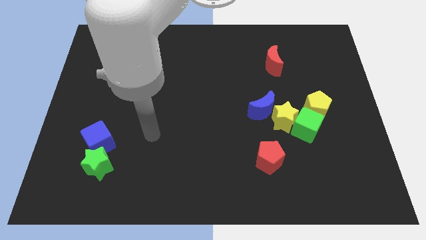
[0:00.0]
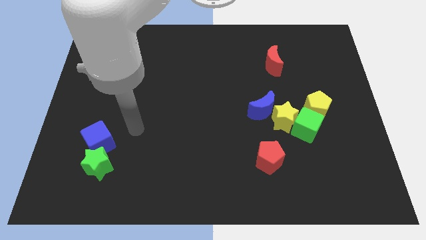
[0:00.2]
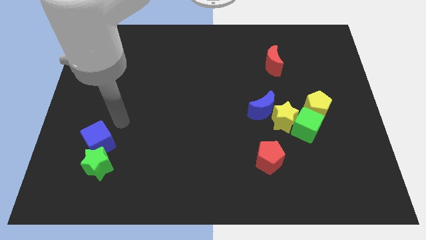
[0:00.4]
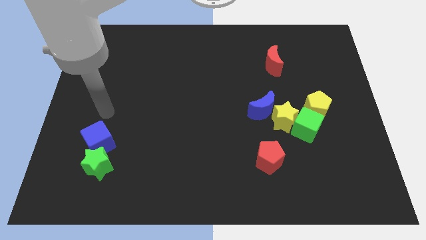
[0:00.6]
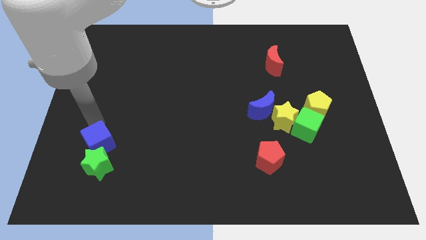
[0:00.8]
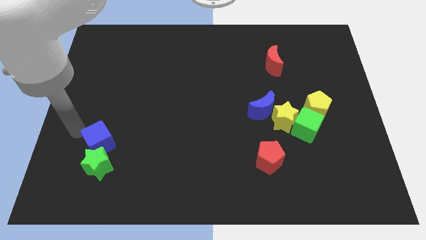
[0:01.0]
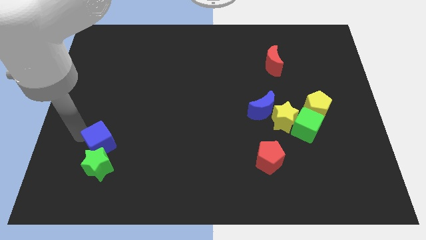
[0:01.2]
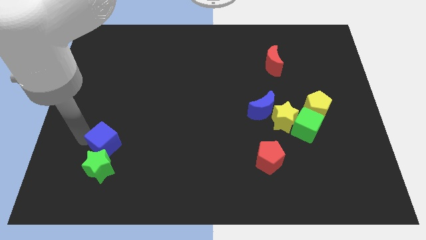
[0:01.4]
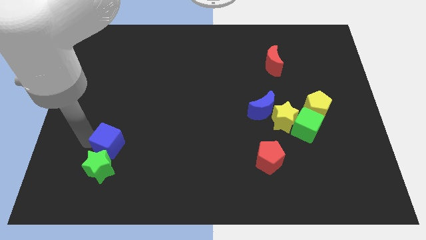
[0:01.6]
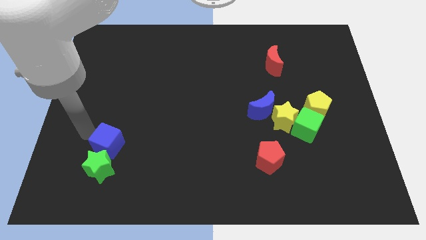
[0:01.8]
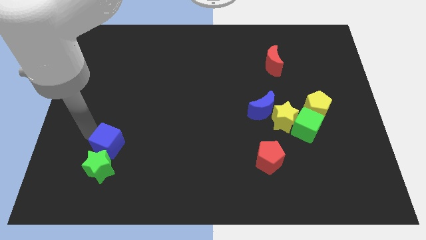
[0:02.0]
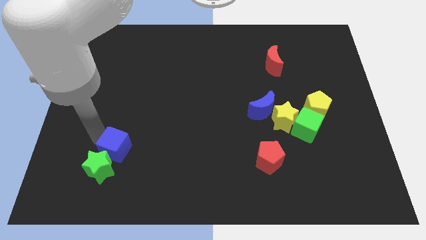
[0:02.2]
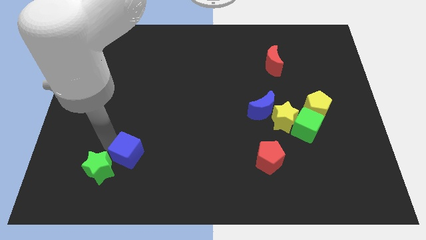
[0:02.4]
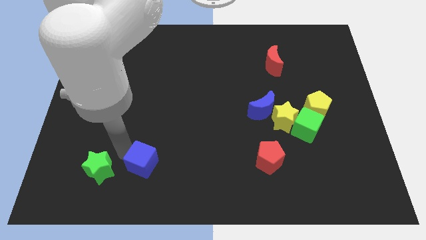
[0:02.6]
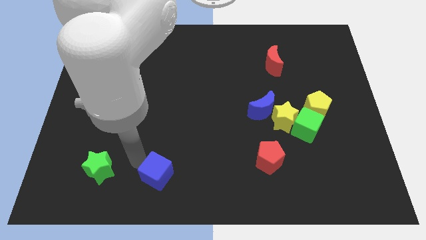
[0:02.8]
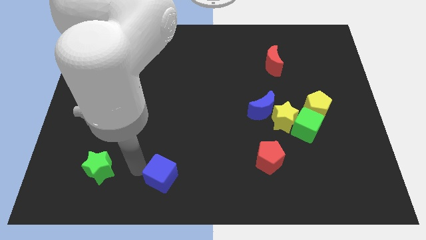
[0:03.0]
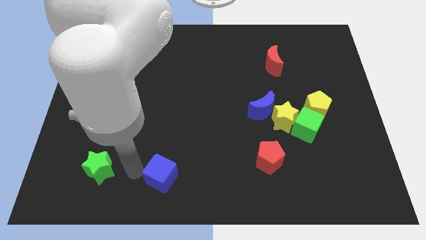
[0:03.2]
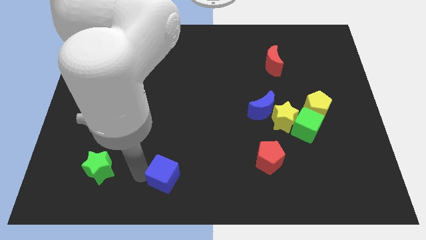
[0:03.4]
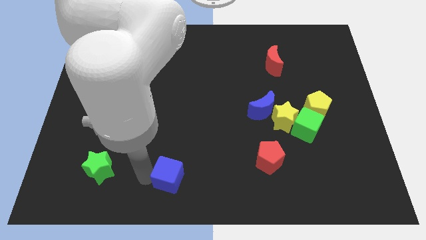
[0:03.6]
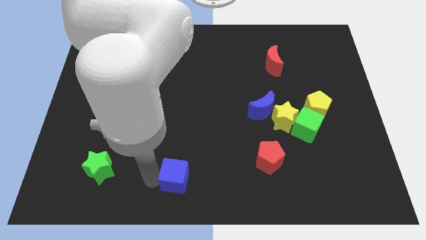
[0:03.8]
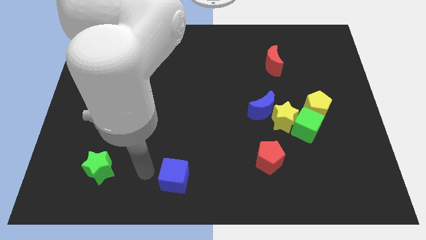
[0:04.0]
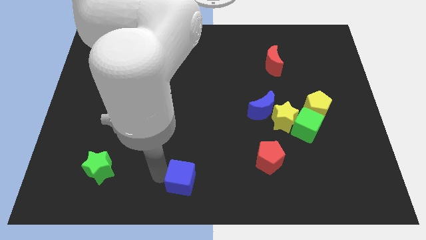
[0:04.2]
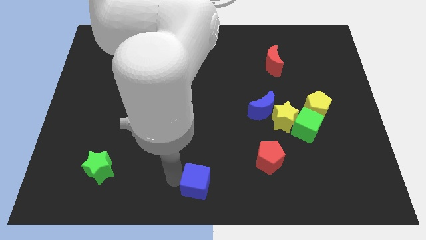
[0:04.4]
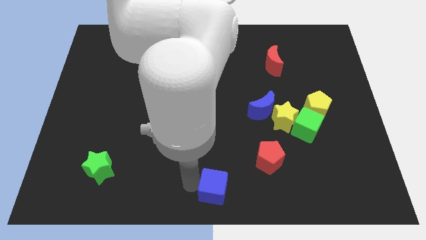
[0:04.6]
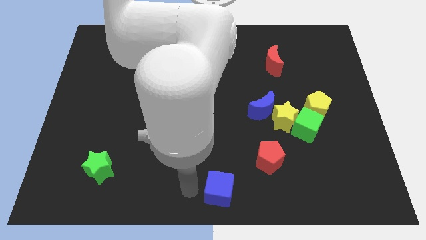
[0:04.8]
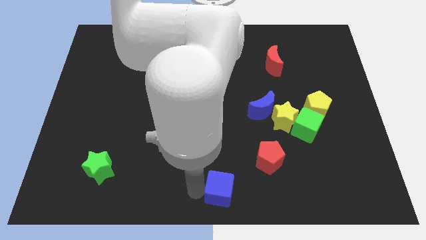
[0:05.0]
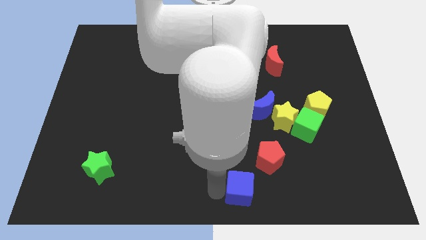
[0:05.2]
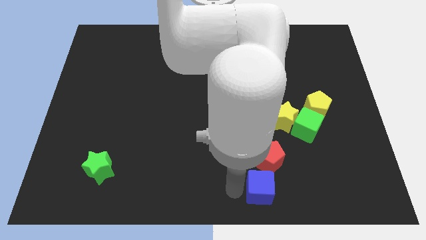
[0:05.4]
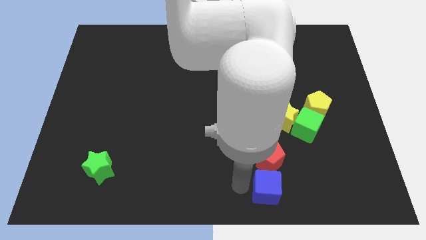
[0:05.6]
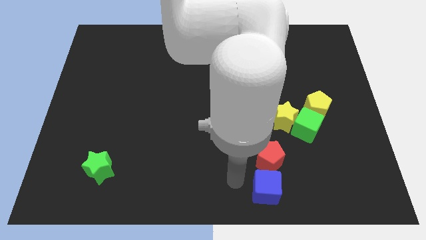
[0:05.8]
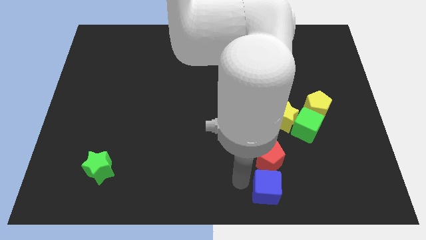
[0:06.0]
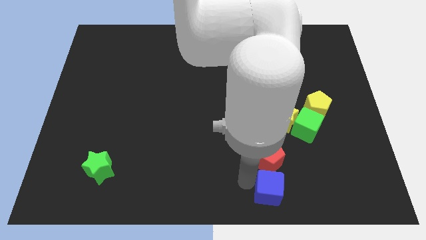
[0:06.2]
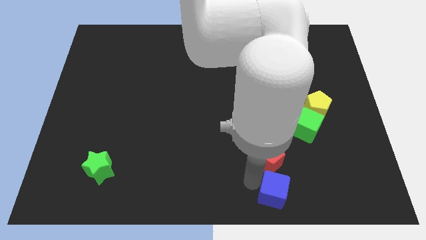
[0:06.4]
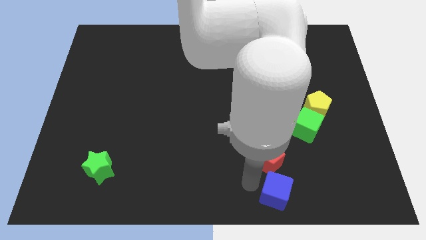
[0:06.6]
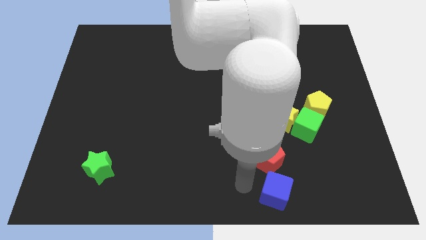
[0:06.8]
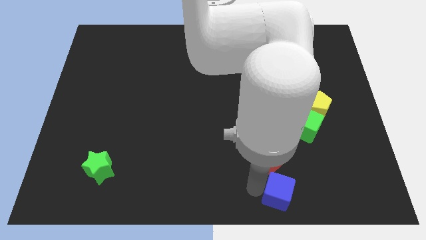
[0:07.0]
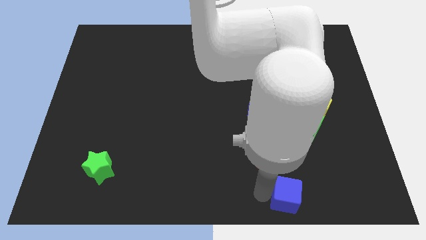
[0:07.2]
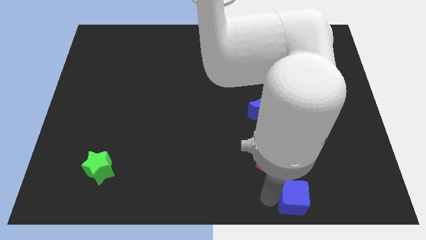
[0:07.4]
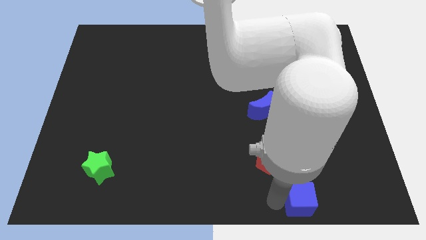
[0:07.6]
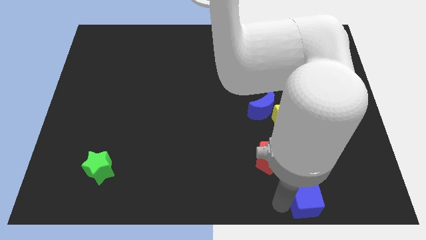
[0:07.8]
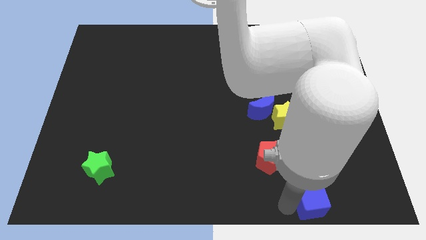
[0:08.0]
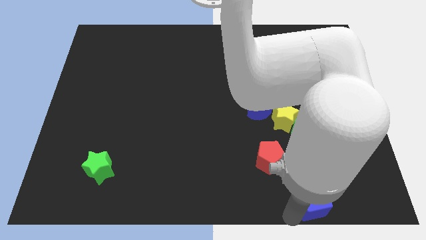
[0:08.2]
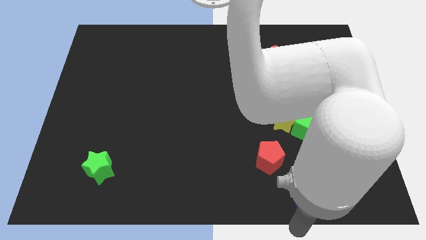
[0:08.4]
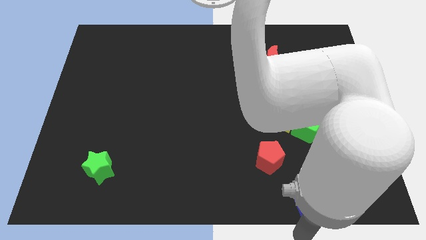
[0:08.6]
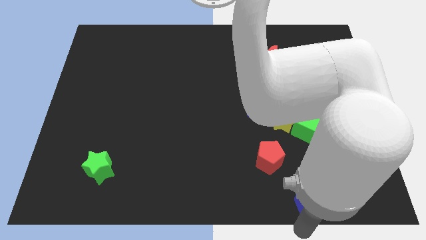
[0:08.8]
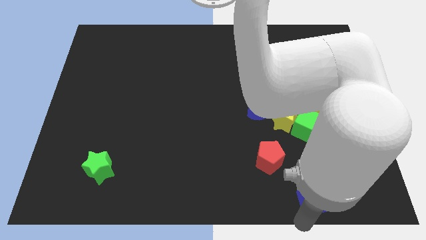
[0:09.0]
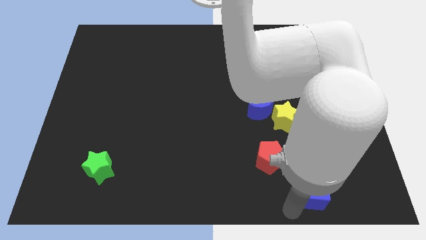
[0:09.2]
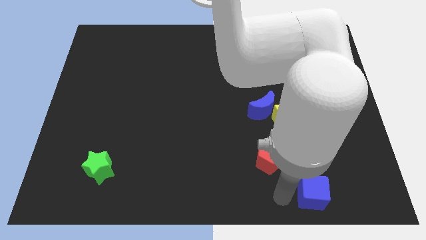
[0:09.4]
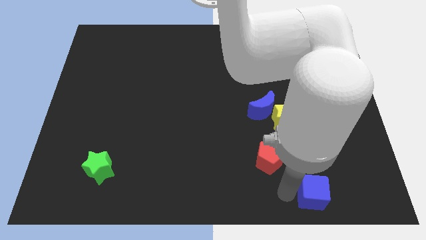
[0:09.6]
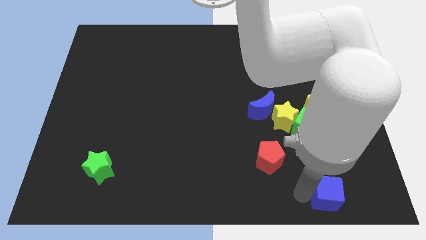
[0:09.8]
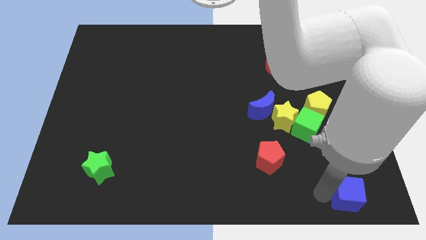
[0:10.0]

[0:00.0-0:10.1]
put the blue cube to the bottom right

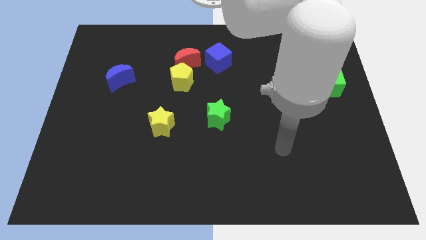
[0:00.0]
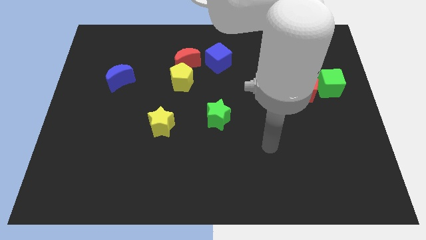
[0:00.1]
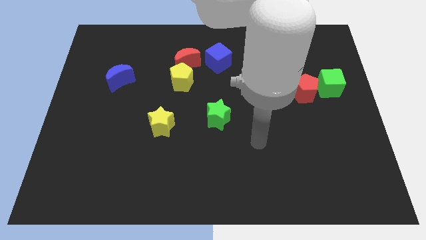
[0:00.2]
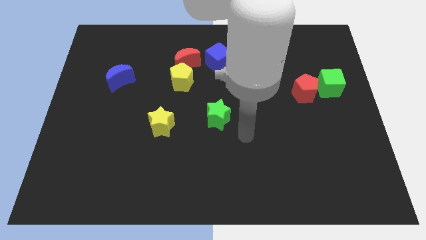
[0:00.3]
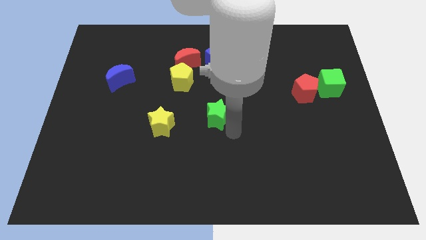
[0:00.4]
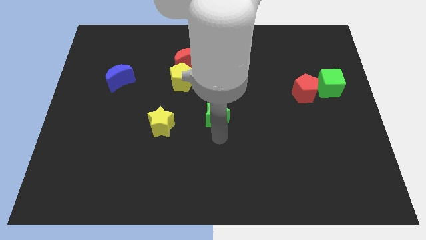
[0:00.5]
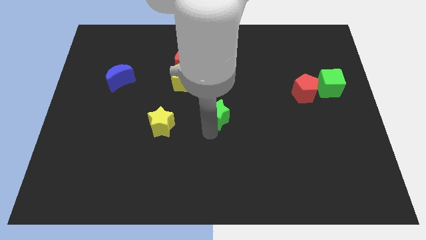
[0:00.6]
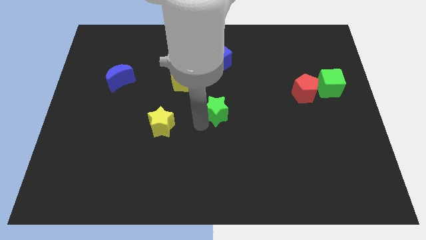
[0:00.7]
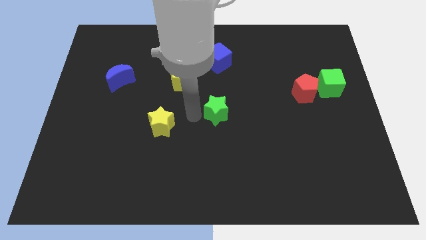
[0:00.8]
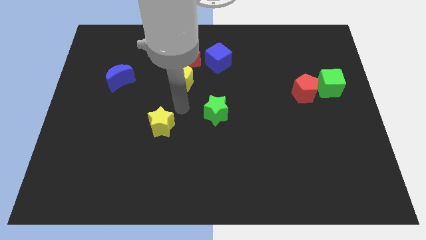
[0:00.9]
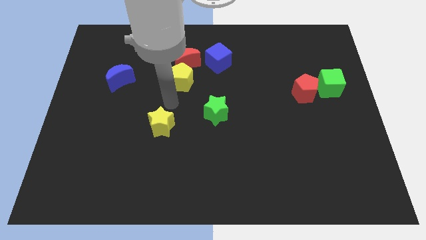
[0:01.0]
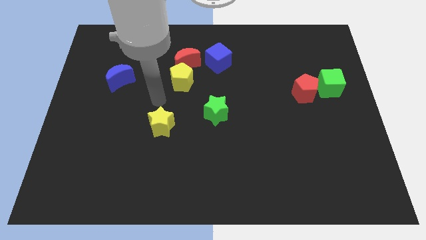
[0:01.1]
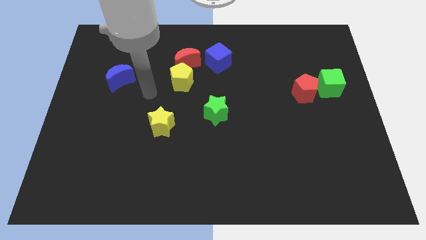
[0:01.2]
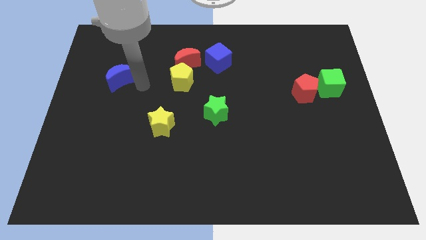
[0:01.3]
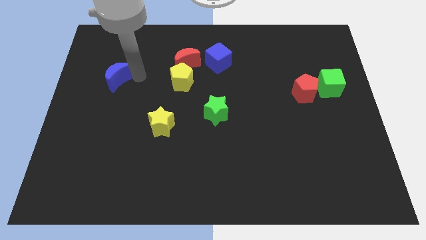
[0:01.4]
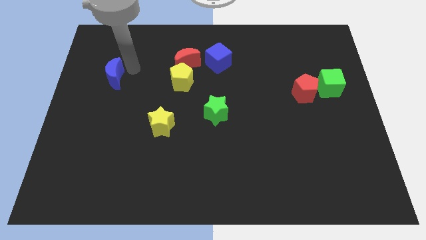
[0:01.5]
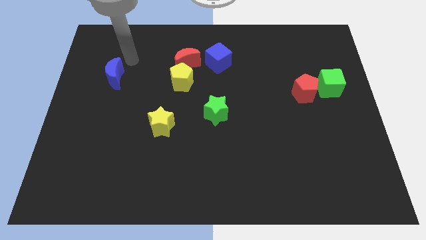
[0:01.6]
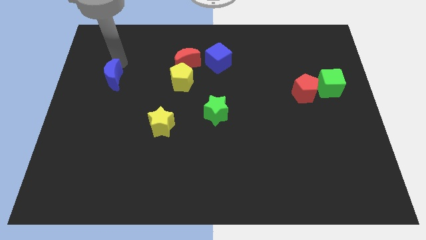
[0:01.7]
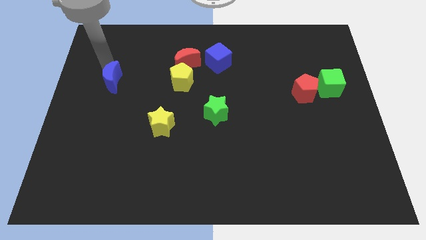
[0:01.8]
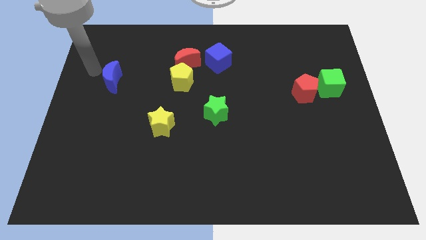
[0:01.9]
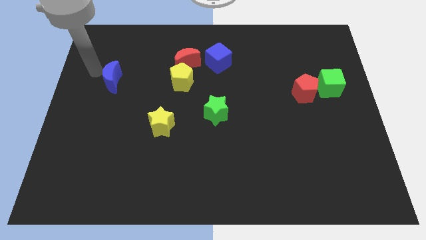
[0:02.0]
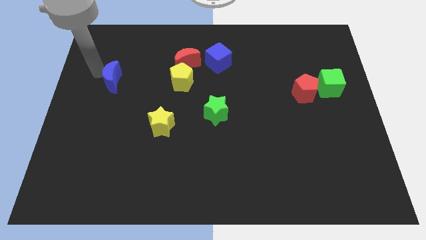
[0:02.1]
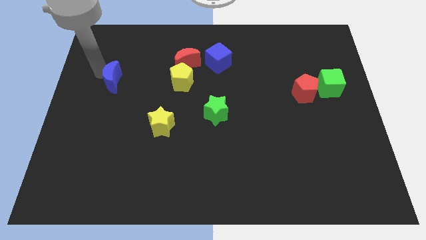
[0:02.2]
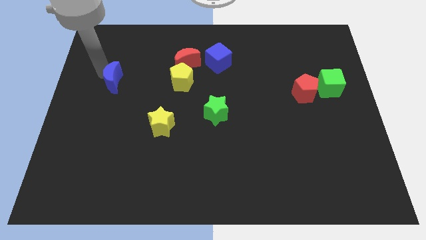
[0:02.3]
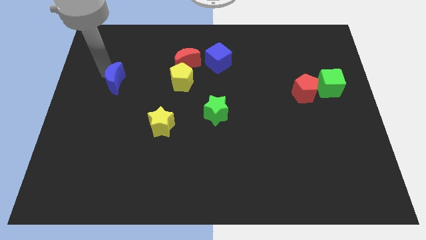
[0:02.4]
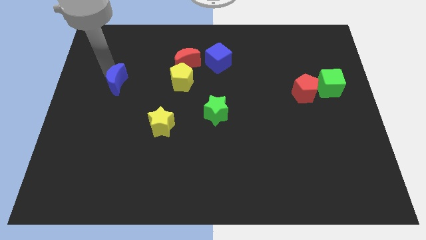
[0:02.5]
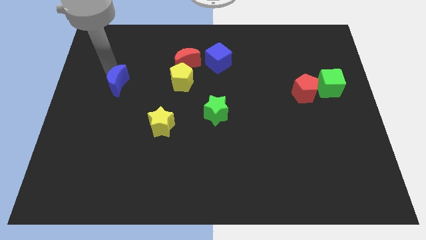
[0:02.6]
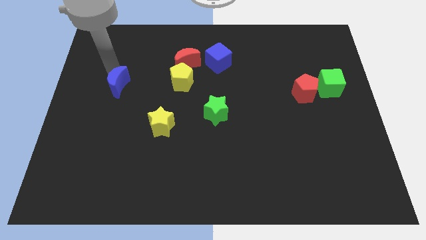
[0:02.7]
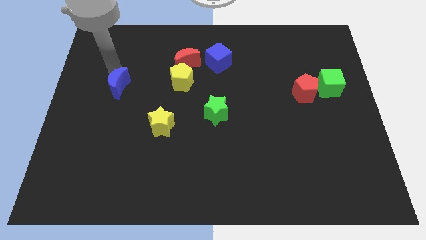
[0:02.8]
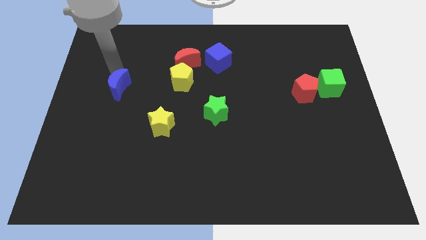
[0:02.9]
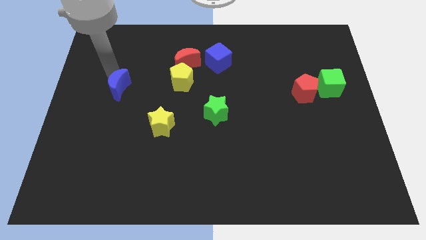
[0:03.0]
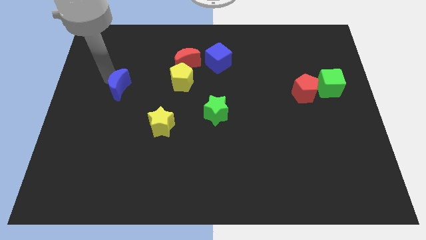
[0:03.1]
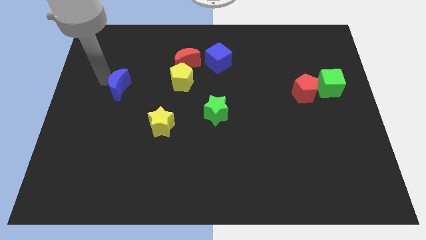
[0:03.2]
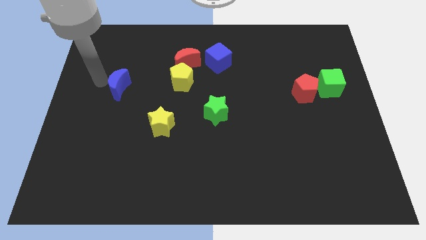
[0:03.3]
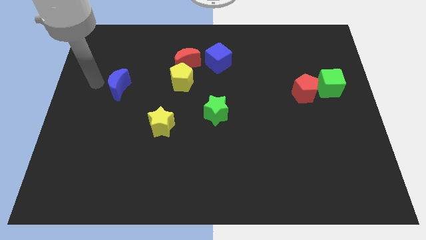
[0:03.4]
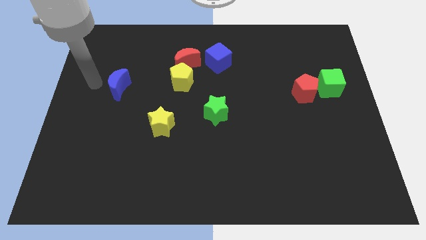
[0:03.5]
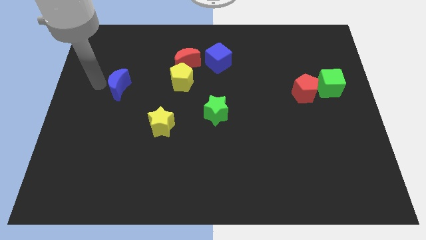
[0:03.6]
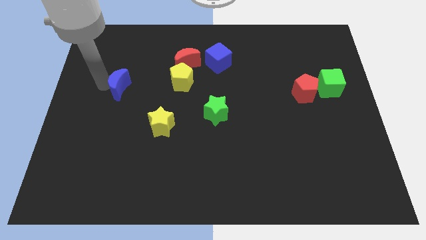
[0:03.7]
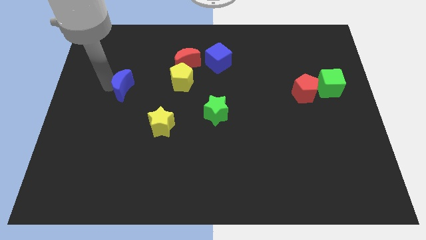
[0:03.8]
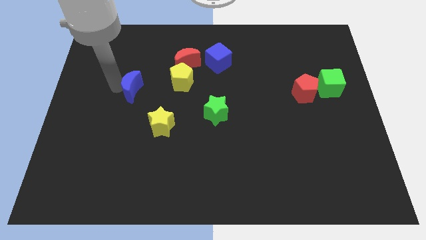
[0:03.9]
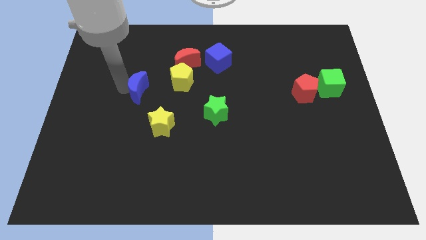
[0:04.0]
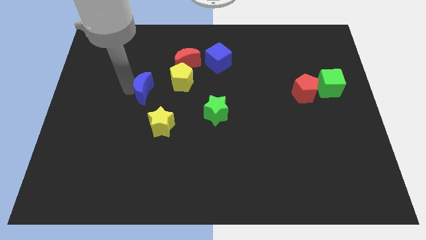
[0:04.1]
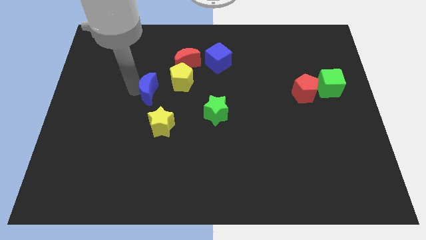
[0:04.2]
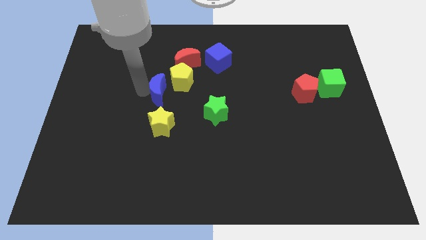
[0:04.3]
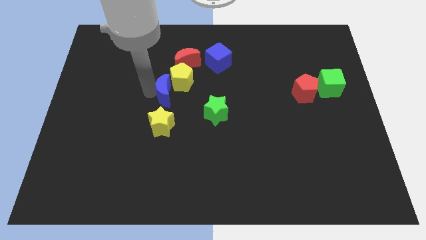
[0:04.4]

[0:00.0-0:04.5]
push the blue moon to the middle
